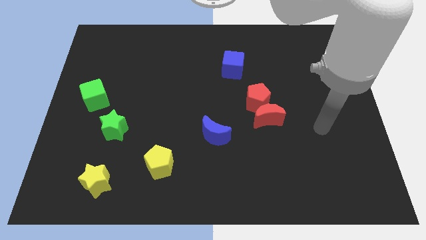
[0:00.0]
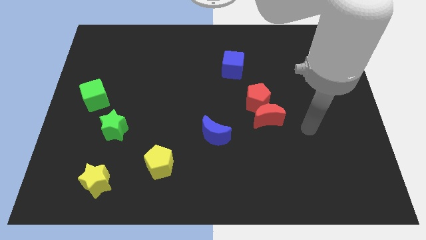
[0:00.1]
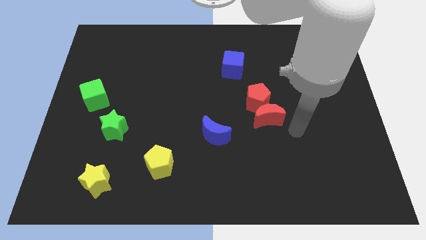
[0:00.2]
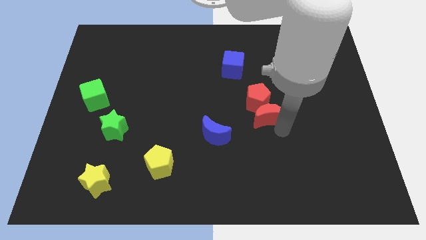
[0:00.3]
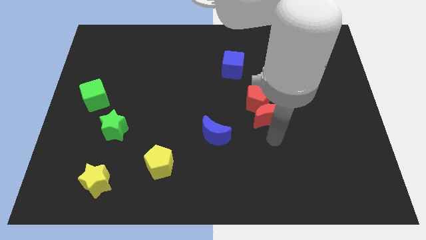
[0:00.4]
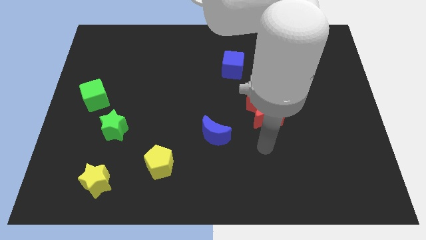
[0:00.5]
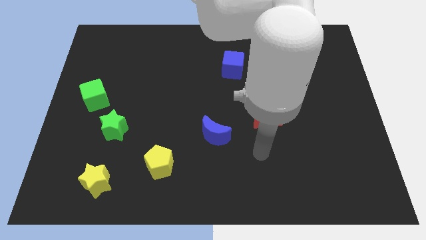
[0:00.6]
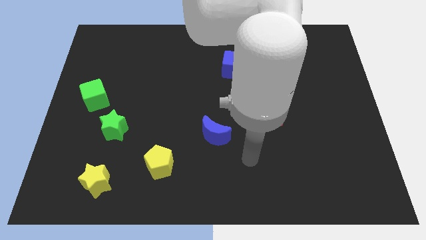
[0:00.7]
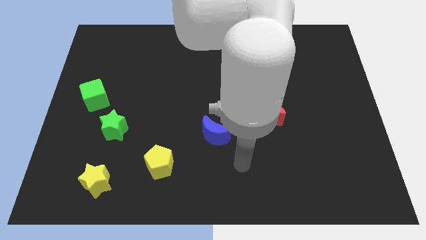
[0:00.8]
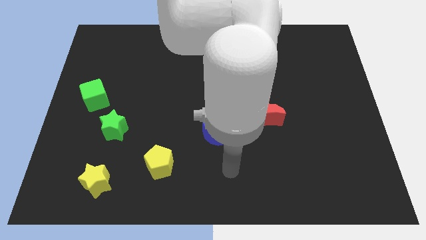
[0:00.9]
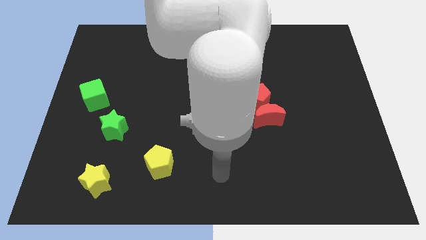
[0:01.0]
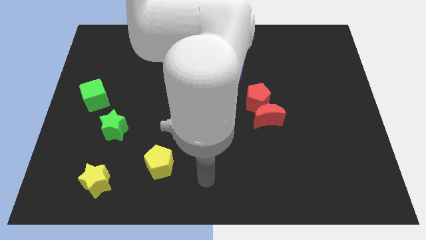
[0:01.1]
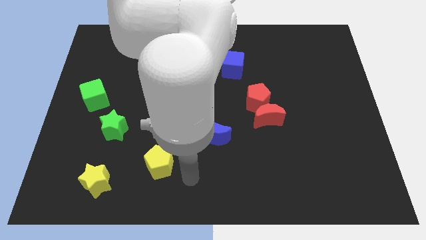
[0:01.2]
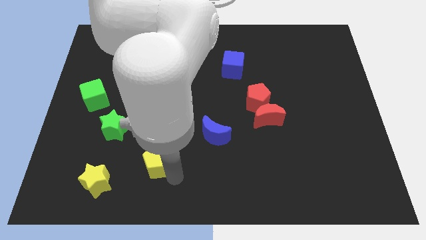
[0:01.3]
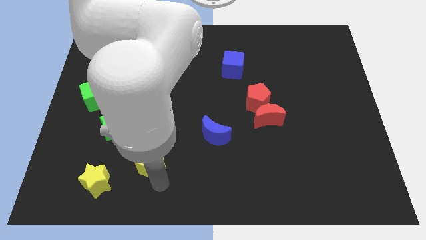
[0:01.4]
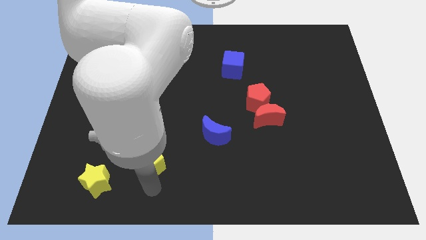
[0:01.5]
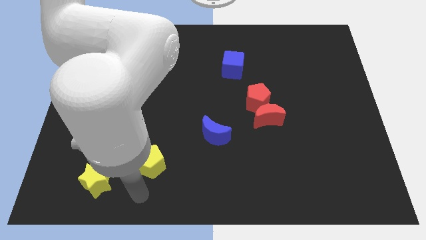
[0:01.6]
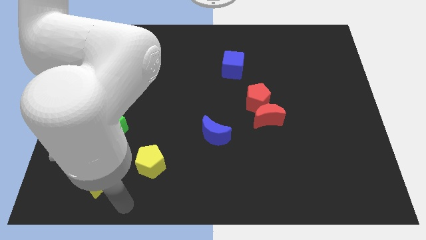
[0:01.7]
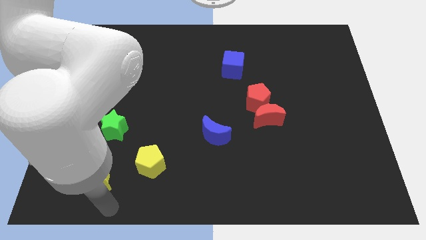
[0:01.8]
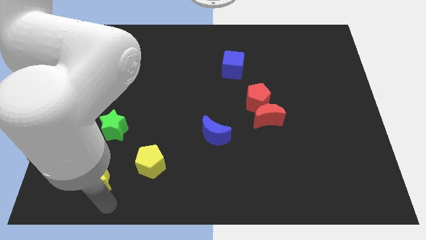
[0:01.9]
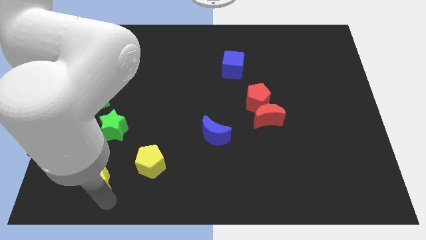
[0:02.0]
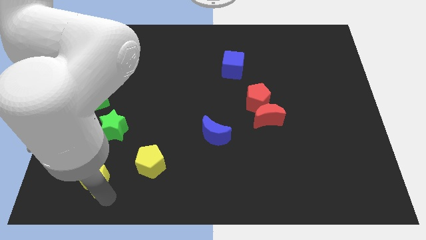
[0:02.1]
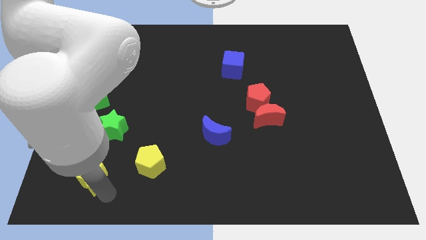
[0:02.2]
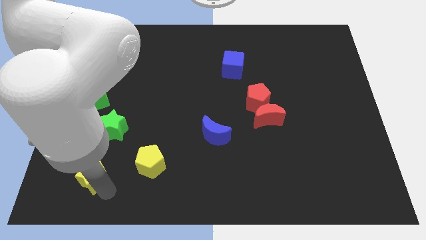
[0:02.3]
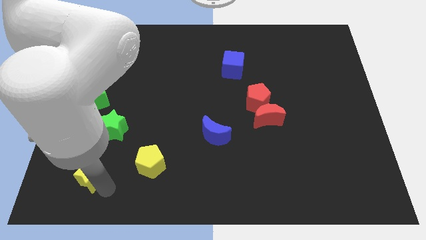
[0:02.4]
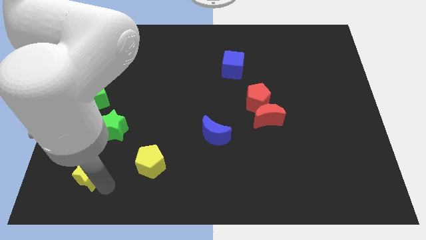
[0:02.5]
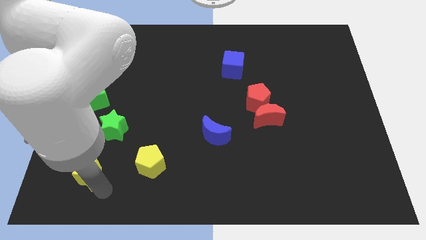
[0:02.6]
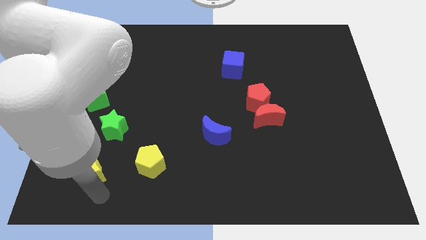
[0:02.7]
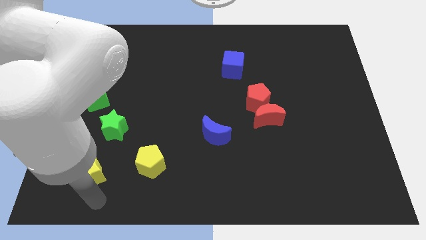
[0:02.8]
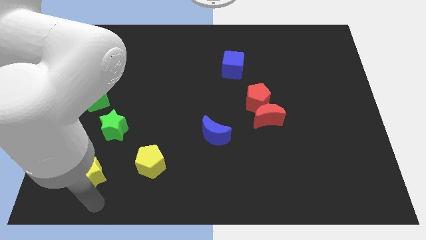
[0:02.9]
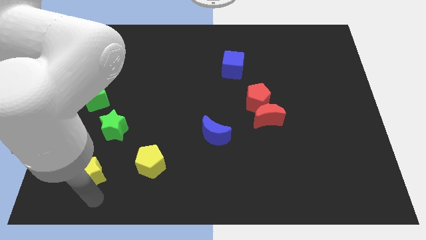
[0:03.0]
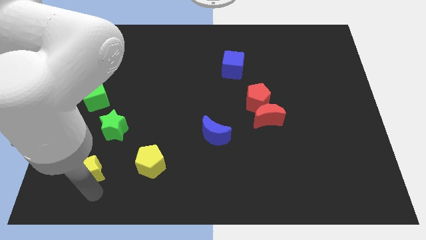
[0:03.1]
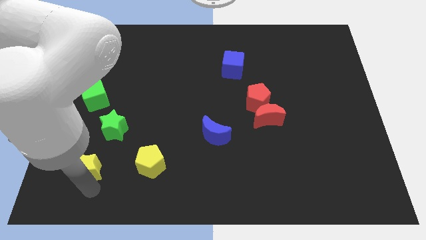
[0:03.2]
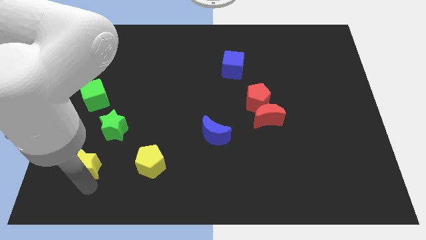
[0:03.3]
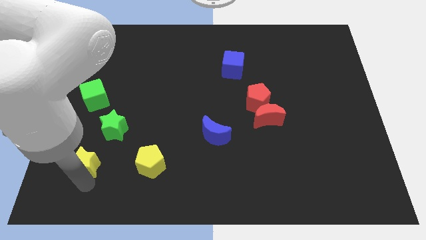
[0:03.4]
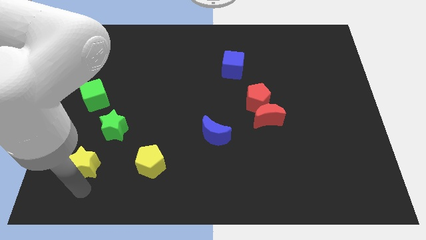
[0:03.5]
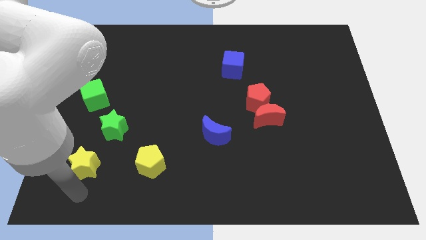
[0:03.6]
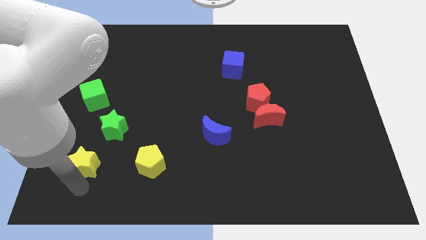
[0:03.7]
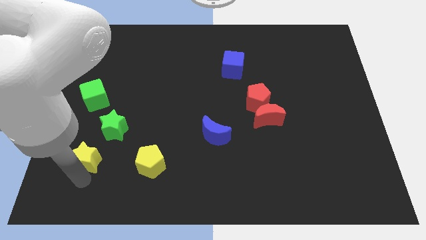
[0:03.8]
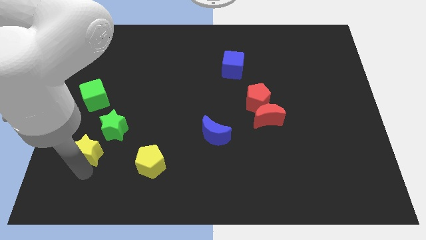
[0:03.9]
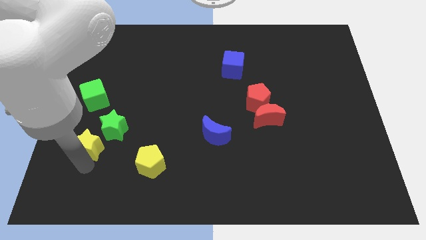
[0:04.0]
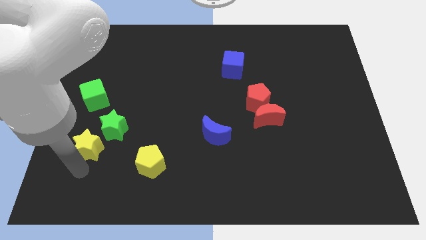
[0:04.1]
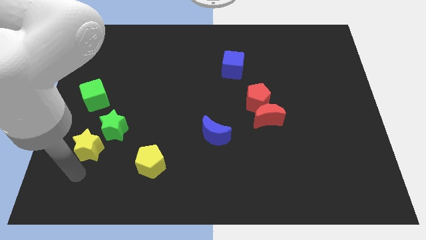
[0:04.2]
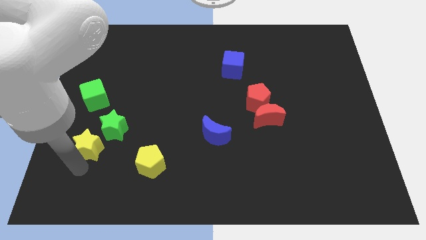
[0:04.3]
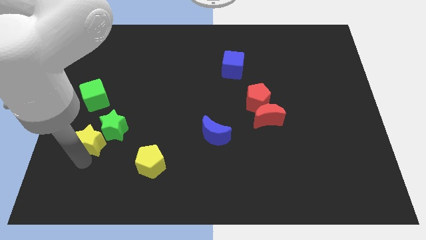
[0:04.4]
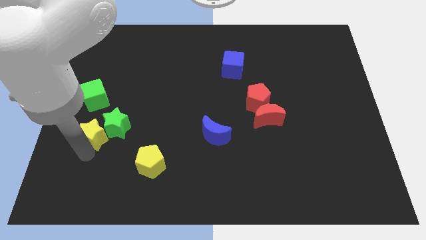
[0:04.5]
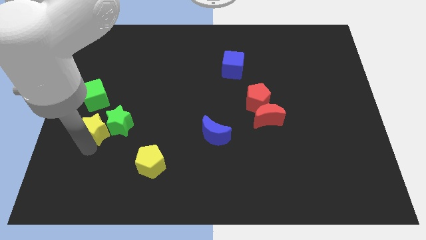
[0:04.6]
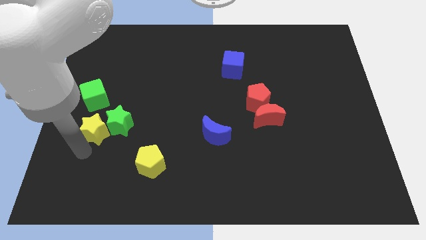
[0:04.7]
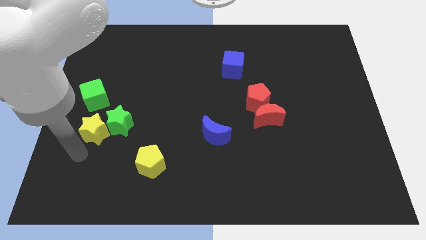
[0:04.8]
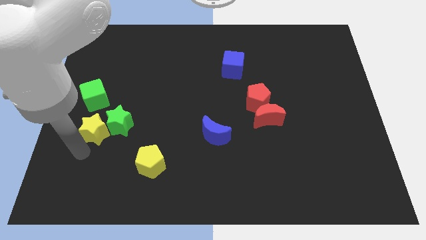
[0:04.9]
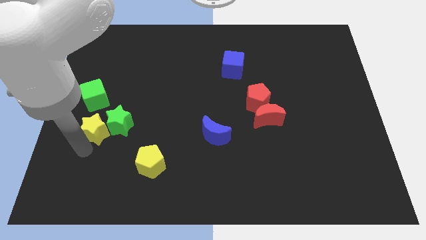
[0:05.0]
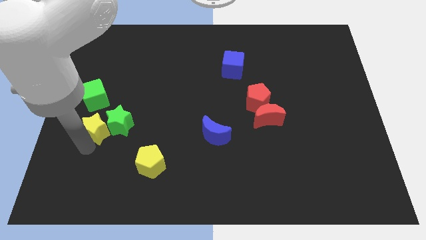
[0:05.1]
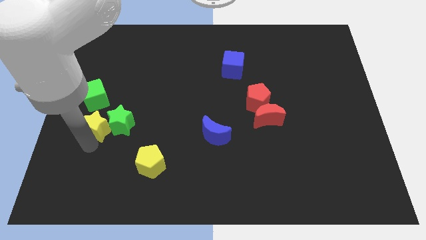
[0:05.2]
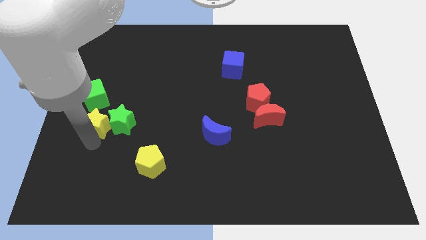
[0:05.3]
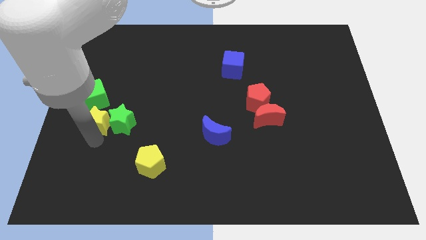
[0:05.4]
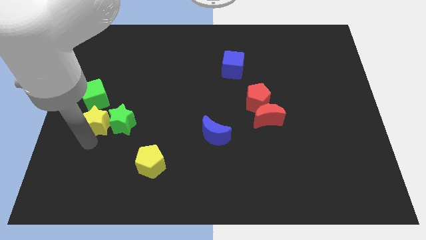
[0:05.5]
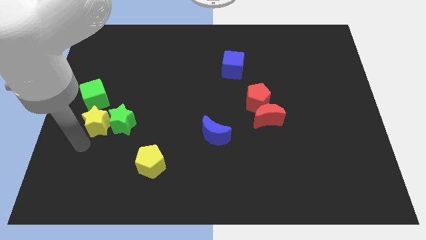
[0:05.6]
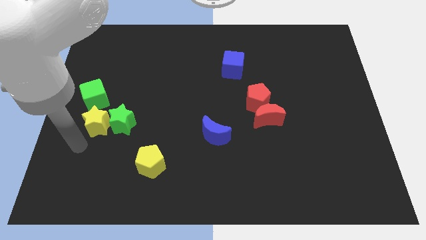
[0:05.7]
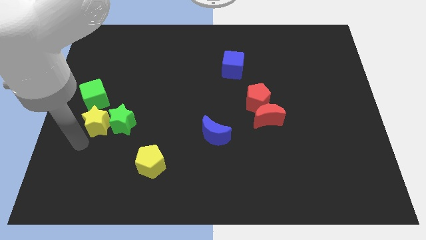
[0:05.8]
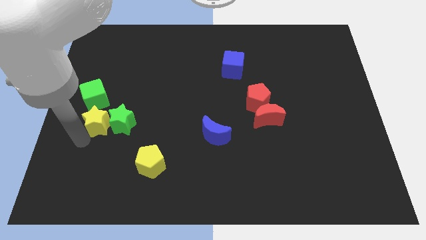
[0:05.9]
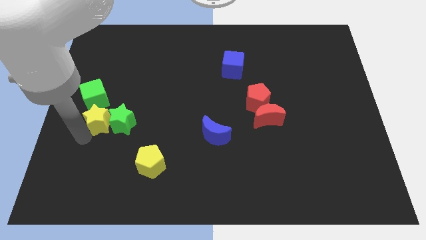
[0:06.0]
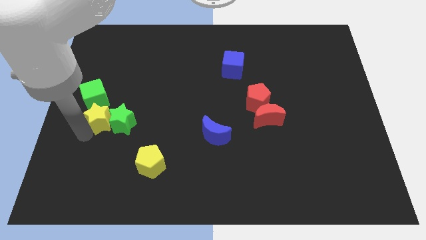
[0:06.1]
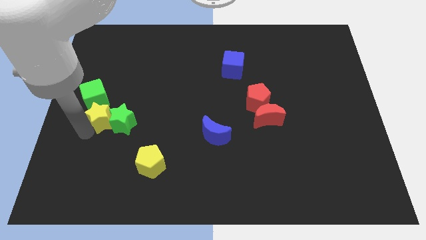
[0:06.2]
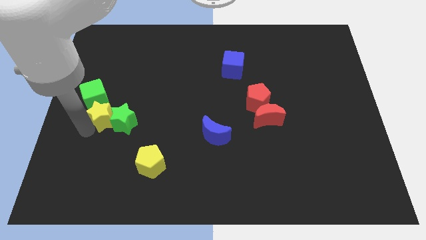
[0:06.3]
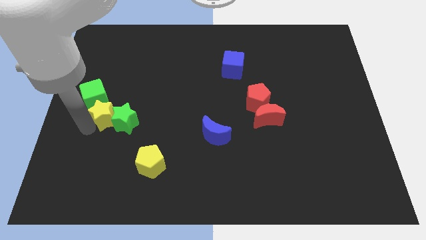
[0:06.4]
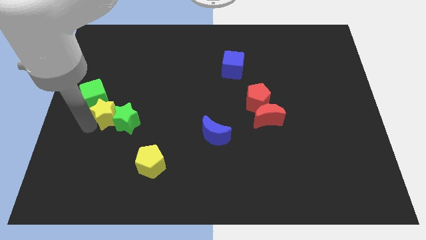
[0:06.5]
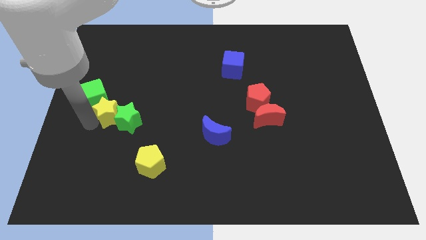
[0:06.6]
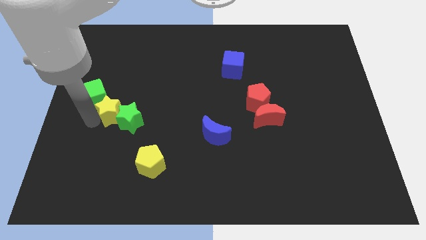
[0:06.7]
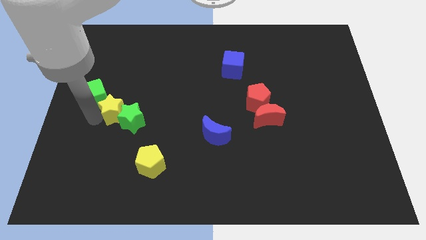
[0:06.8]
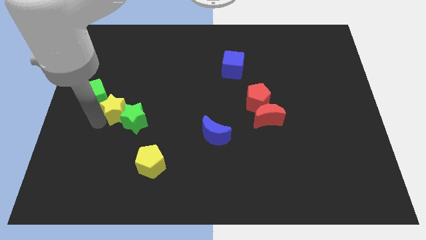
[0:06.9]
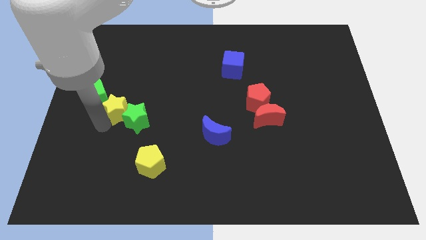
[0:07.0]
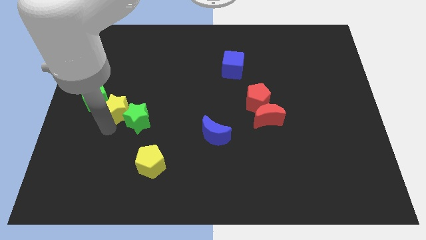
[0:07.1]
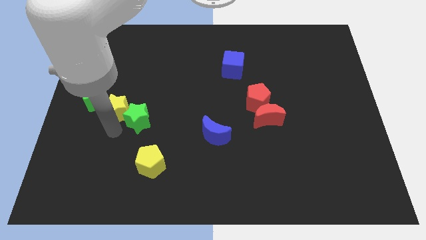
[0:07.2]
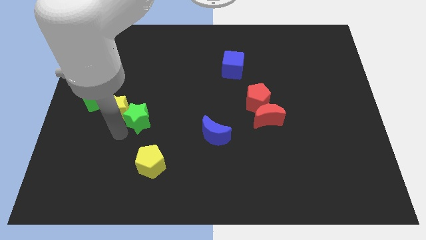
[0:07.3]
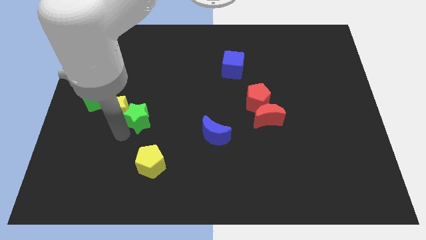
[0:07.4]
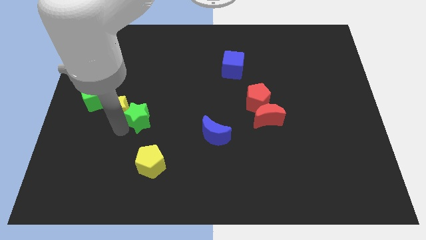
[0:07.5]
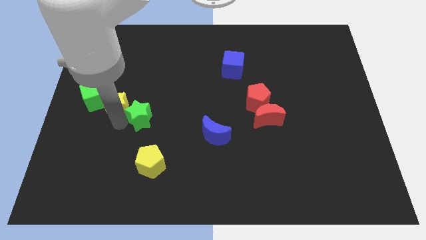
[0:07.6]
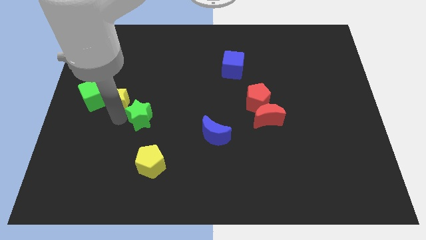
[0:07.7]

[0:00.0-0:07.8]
move the yellow star upwards
